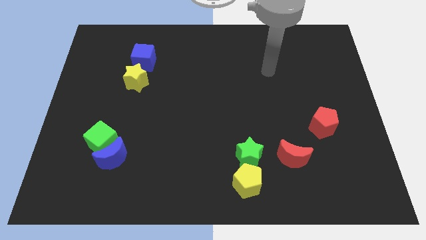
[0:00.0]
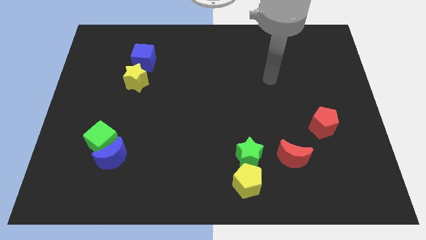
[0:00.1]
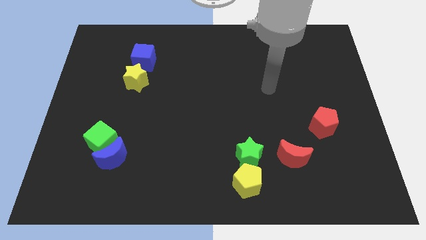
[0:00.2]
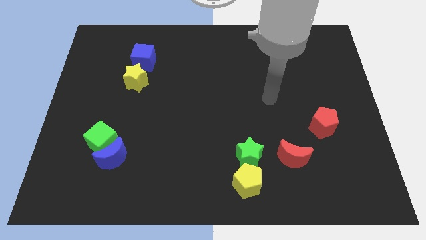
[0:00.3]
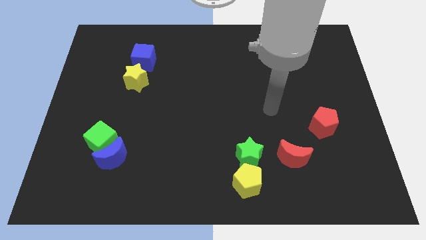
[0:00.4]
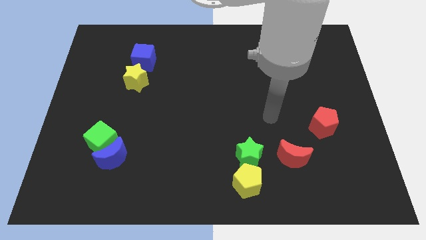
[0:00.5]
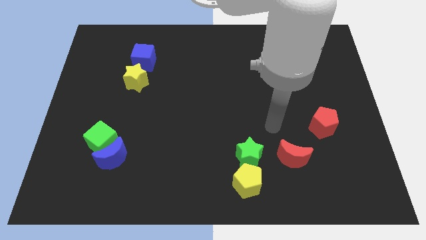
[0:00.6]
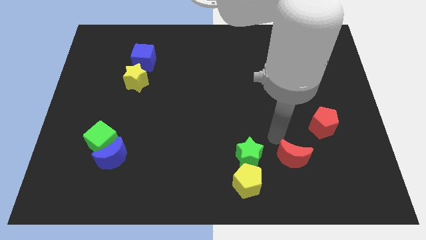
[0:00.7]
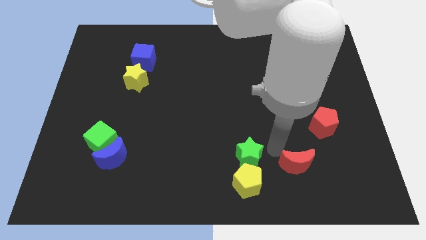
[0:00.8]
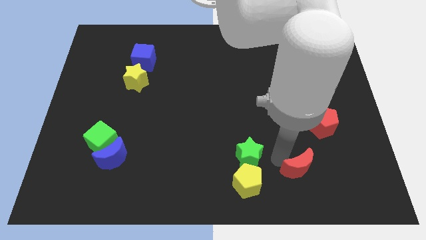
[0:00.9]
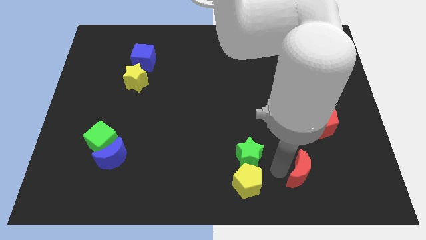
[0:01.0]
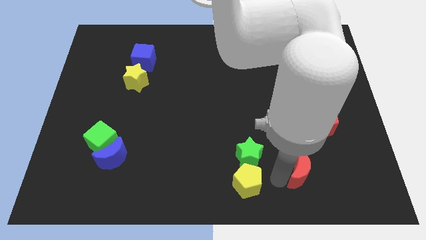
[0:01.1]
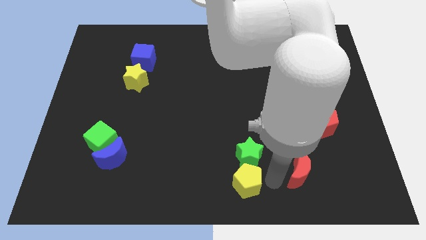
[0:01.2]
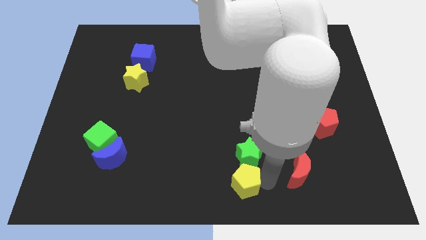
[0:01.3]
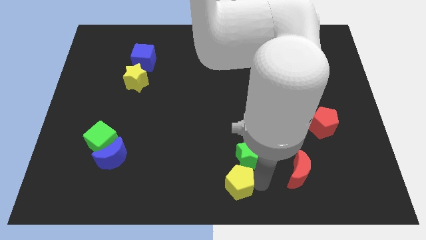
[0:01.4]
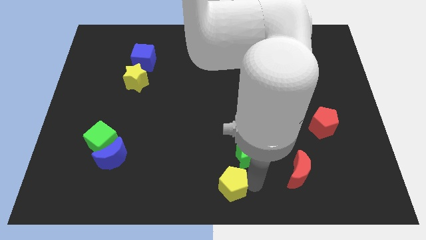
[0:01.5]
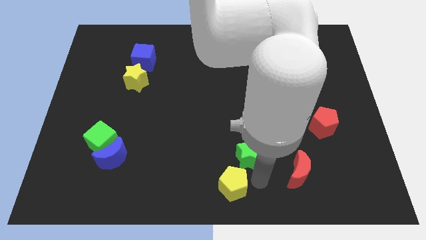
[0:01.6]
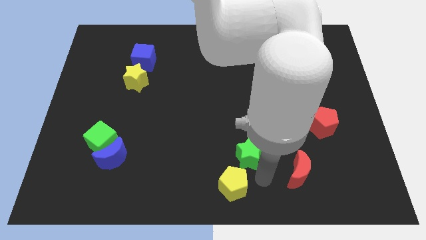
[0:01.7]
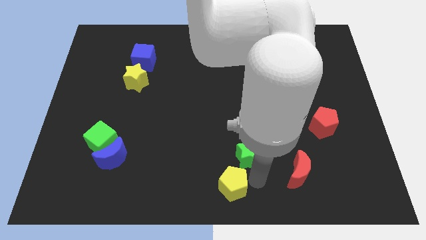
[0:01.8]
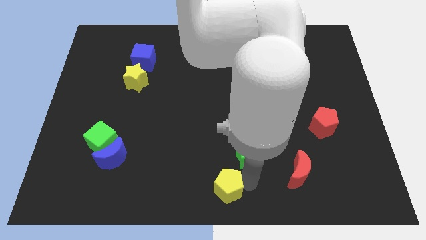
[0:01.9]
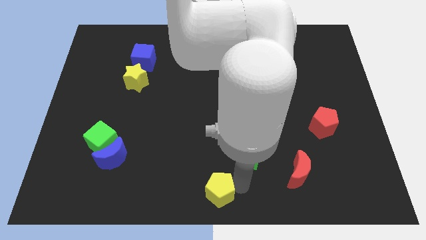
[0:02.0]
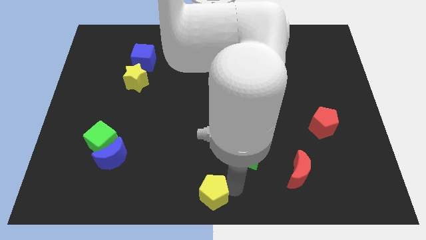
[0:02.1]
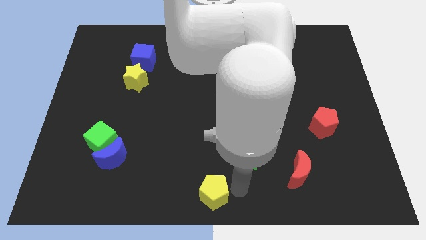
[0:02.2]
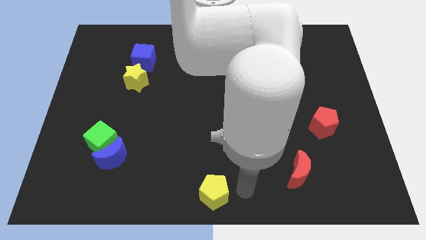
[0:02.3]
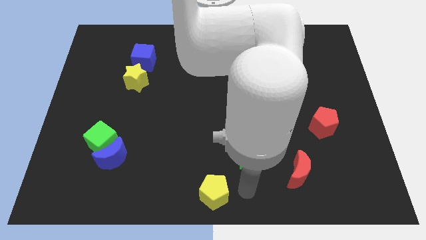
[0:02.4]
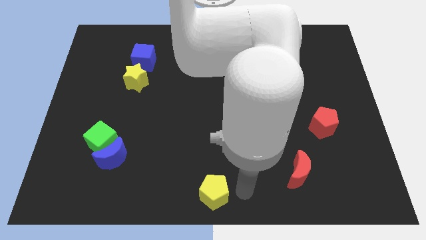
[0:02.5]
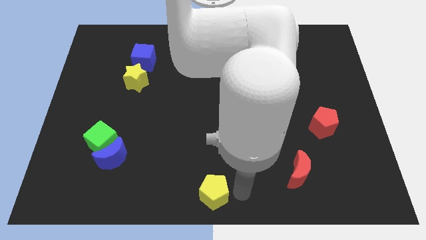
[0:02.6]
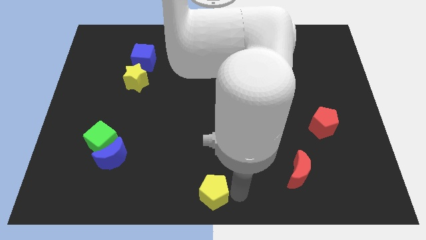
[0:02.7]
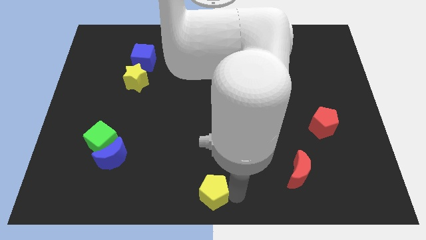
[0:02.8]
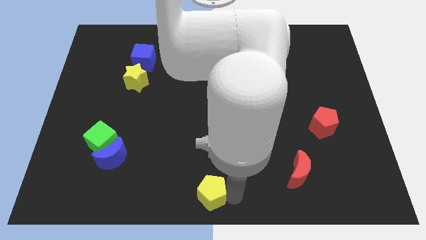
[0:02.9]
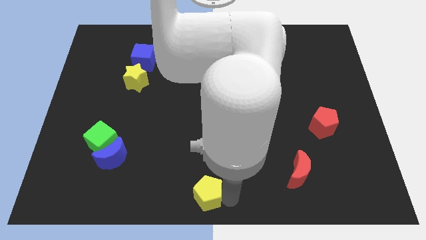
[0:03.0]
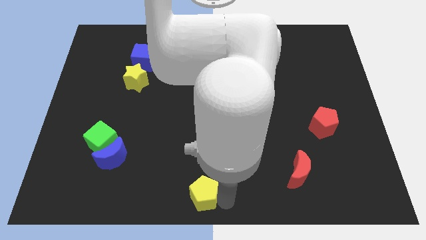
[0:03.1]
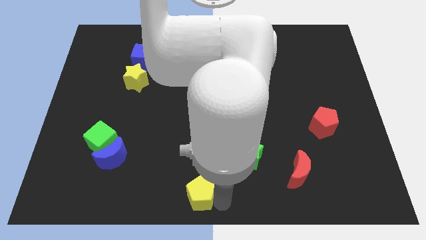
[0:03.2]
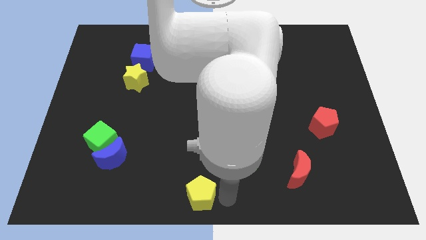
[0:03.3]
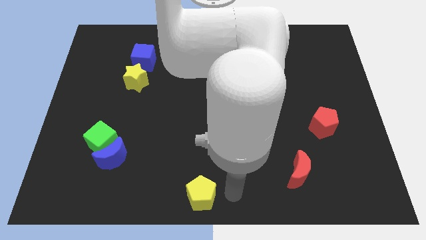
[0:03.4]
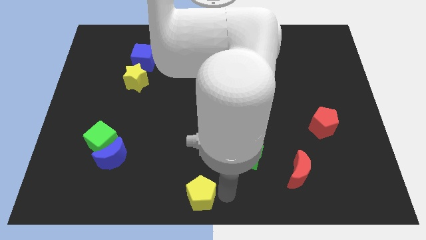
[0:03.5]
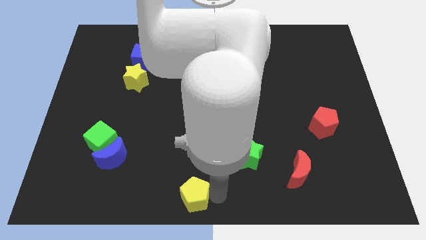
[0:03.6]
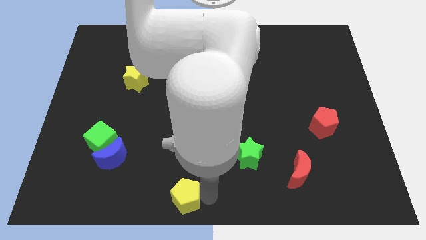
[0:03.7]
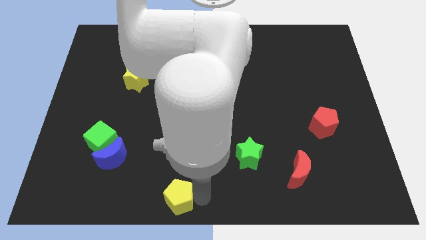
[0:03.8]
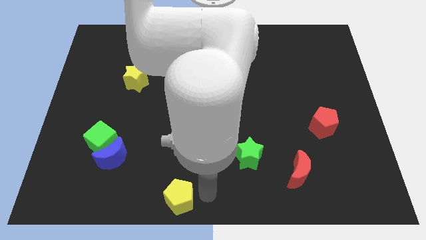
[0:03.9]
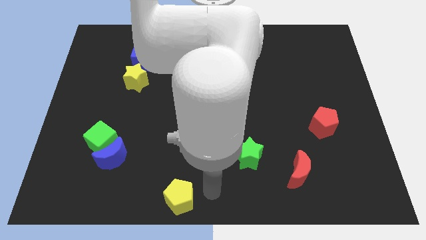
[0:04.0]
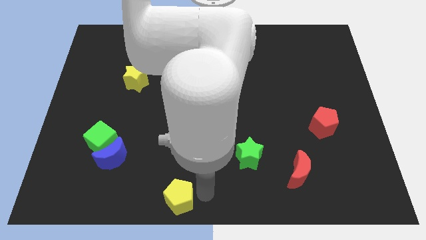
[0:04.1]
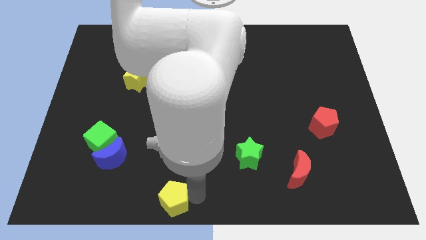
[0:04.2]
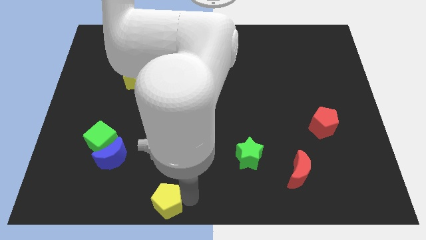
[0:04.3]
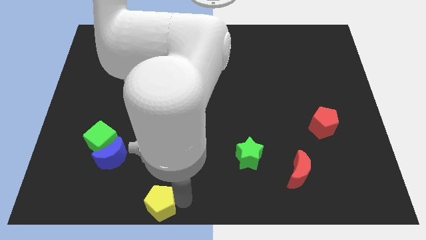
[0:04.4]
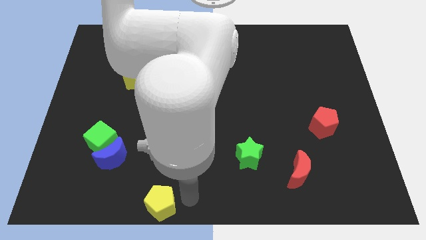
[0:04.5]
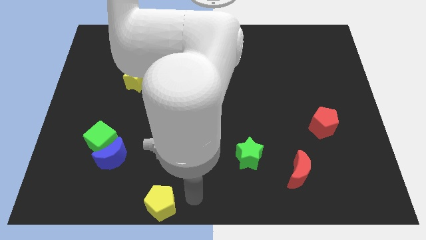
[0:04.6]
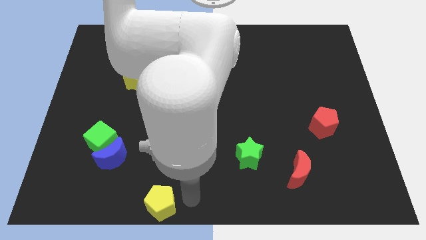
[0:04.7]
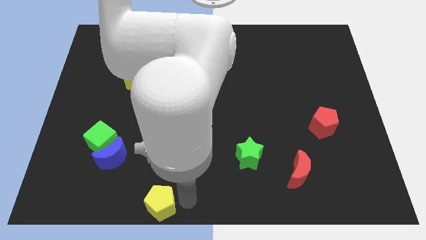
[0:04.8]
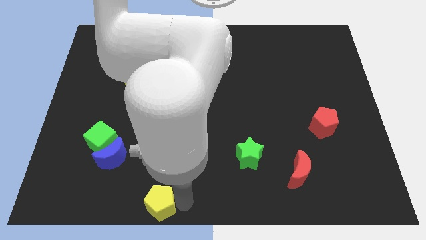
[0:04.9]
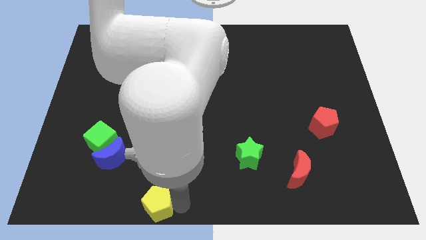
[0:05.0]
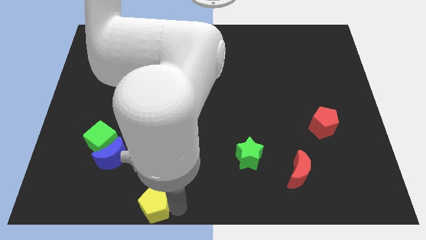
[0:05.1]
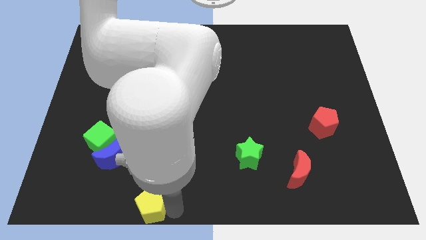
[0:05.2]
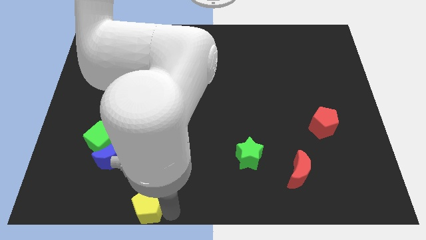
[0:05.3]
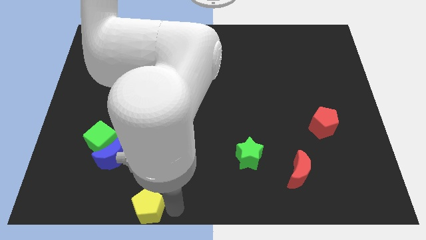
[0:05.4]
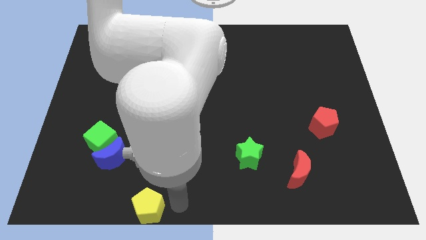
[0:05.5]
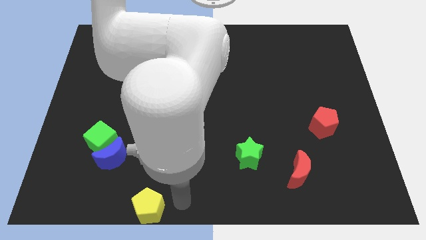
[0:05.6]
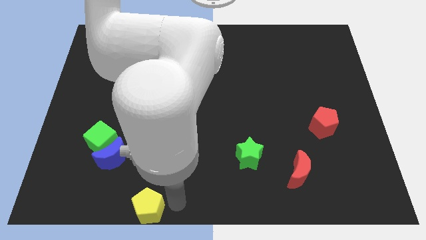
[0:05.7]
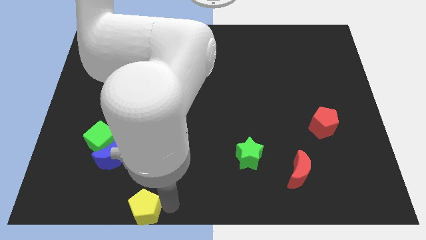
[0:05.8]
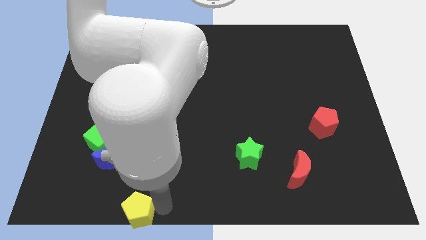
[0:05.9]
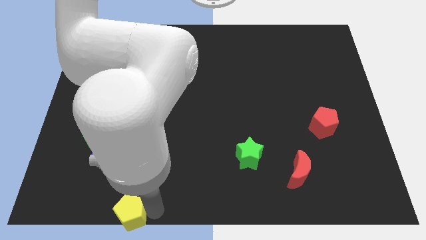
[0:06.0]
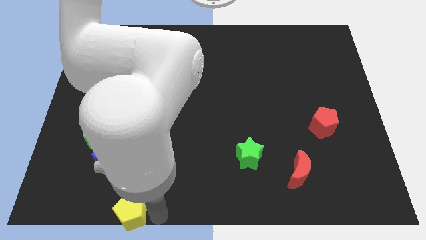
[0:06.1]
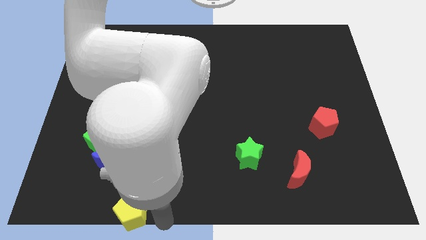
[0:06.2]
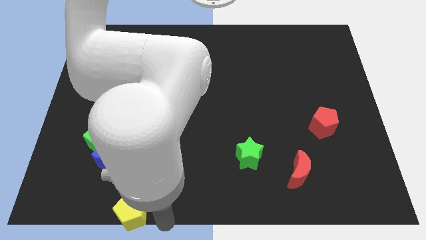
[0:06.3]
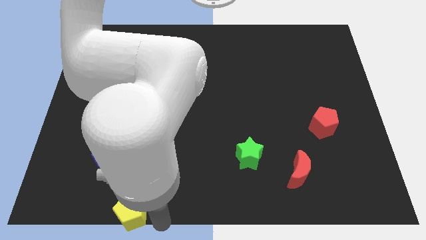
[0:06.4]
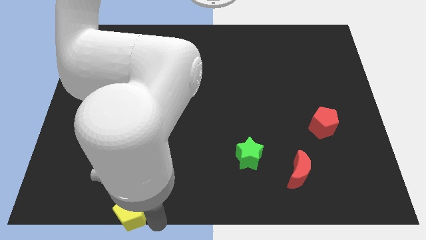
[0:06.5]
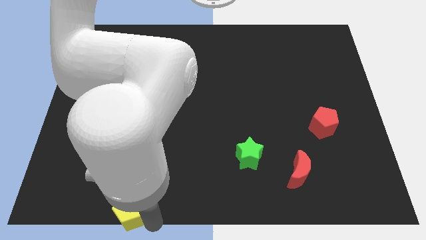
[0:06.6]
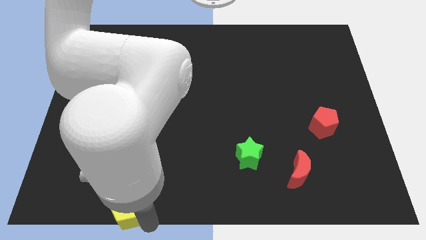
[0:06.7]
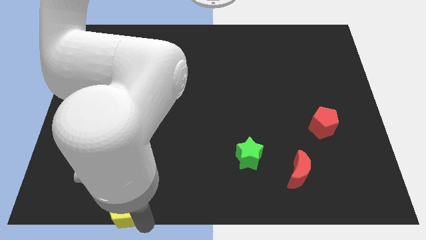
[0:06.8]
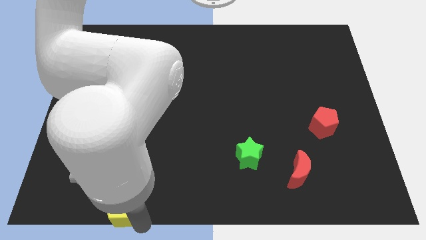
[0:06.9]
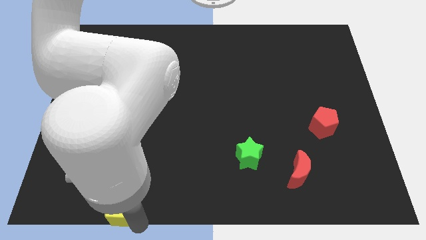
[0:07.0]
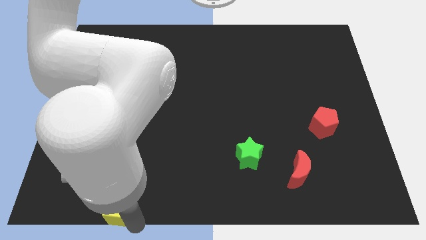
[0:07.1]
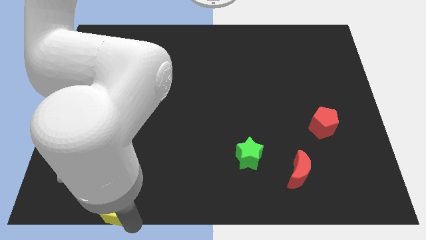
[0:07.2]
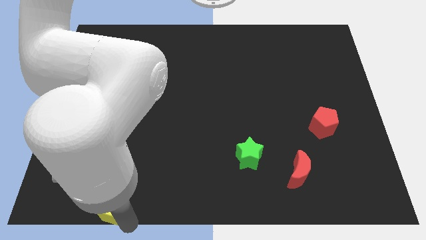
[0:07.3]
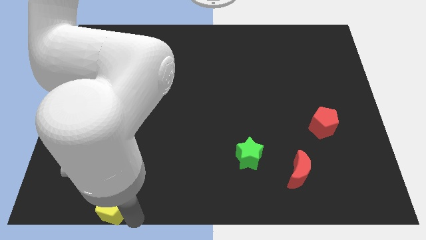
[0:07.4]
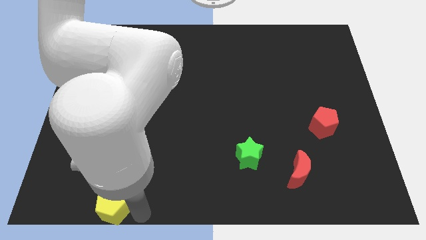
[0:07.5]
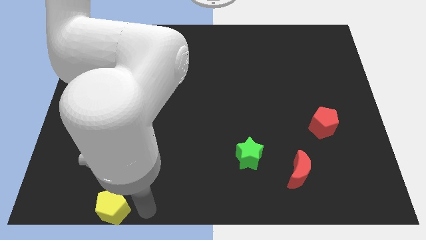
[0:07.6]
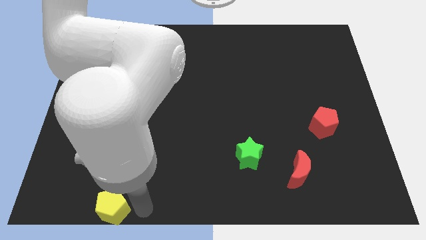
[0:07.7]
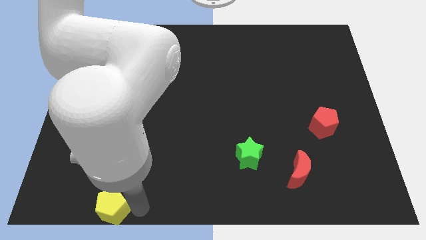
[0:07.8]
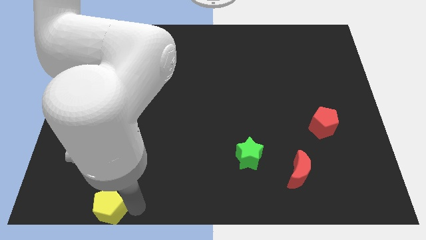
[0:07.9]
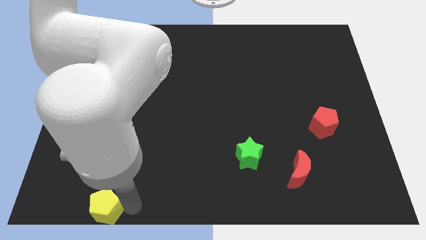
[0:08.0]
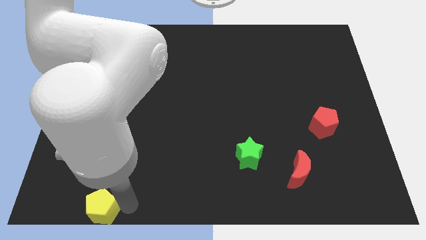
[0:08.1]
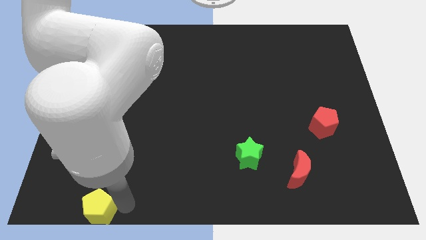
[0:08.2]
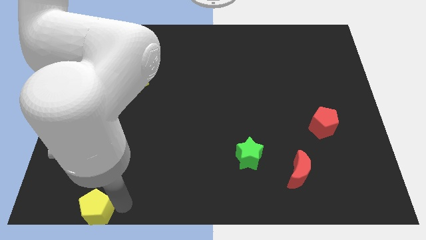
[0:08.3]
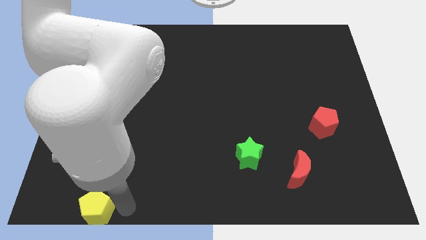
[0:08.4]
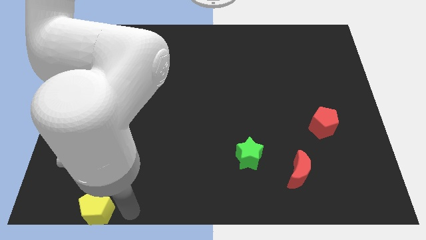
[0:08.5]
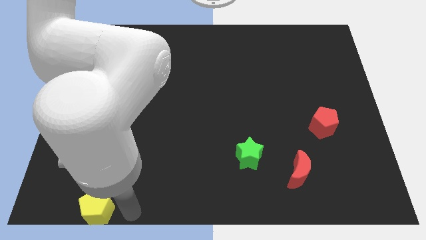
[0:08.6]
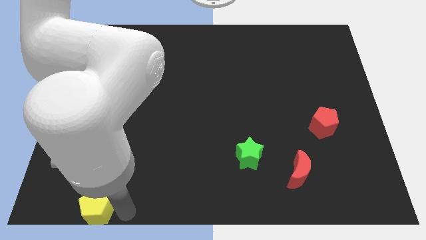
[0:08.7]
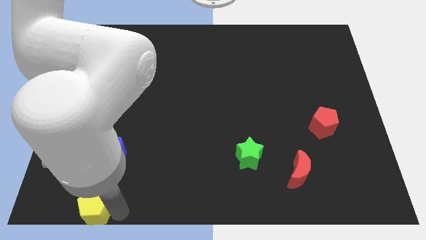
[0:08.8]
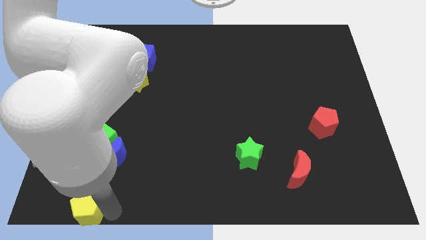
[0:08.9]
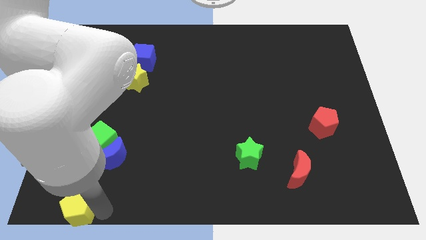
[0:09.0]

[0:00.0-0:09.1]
put the yellow pentagon to the bottom left of the board
